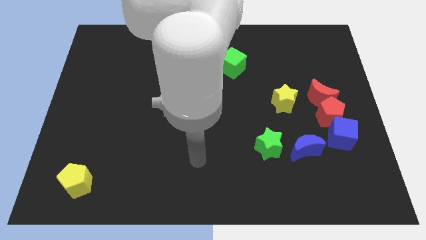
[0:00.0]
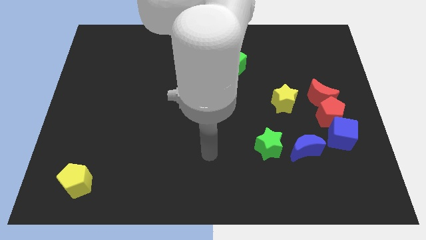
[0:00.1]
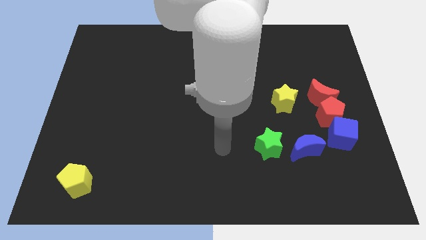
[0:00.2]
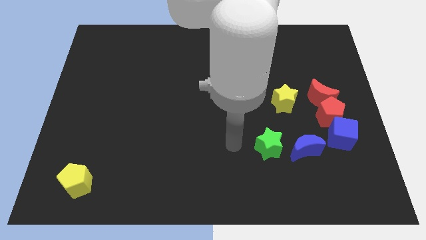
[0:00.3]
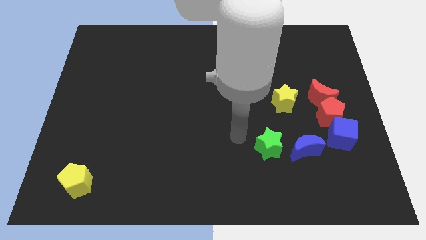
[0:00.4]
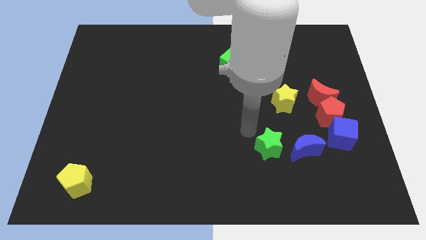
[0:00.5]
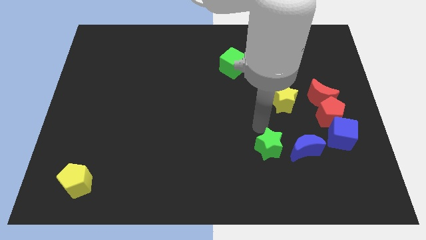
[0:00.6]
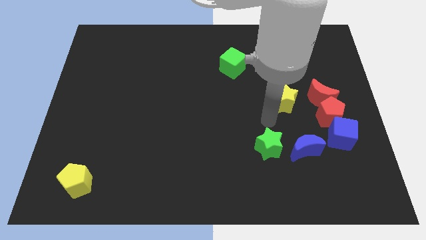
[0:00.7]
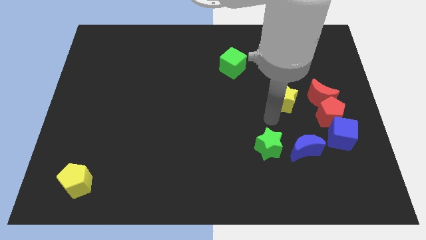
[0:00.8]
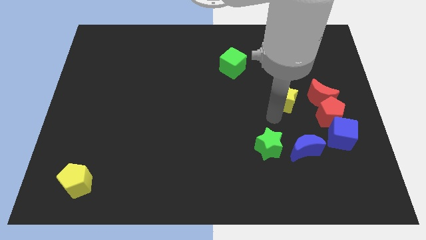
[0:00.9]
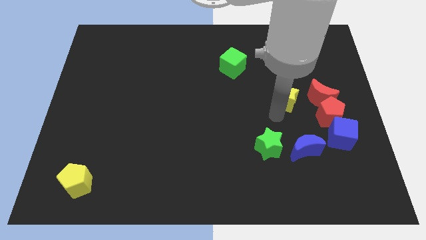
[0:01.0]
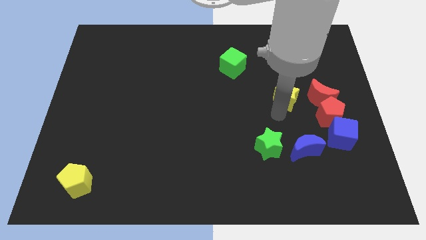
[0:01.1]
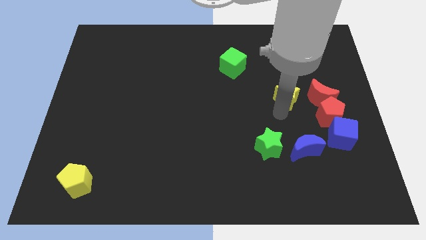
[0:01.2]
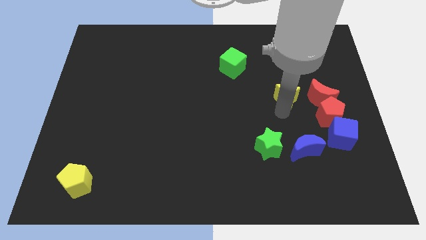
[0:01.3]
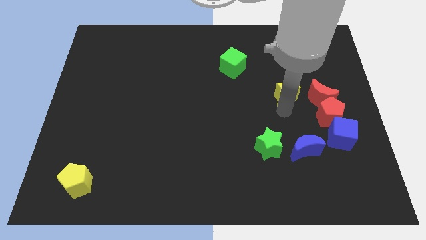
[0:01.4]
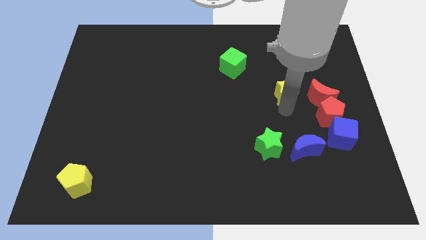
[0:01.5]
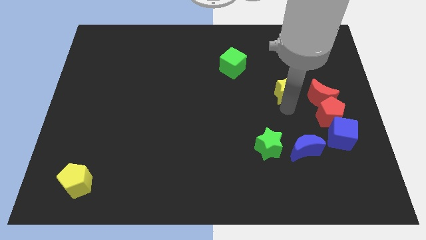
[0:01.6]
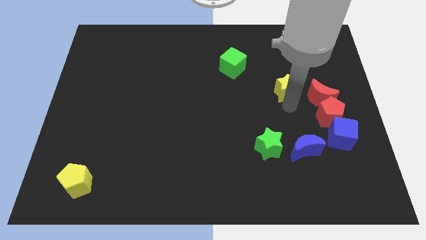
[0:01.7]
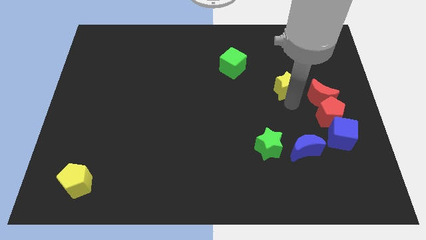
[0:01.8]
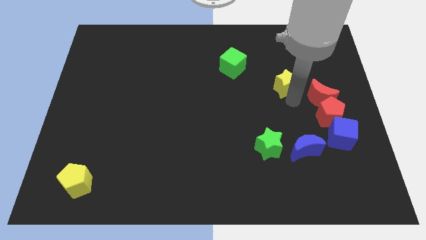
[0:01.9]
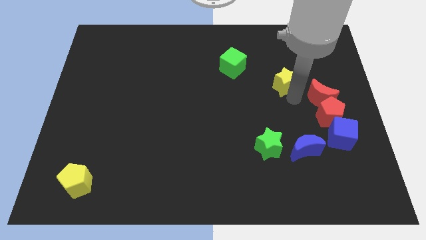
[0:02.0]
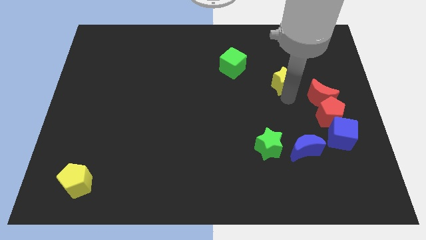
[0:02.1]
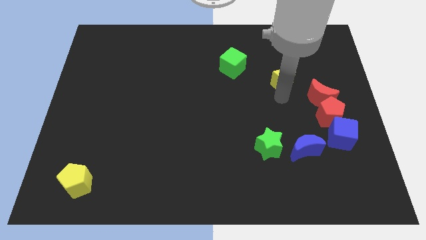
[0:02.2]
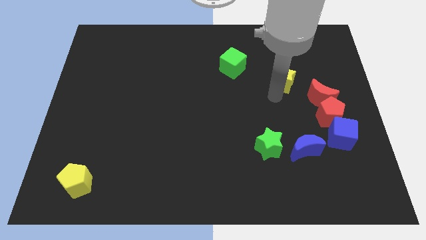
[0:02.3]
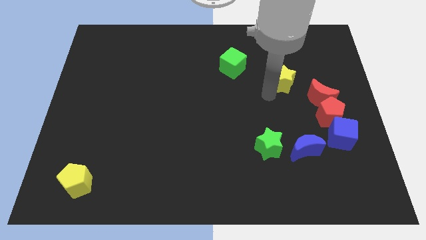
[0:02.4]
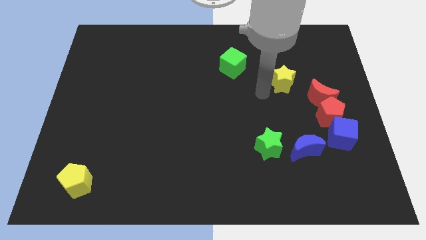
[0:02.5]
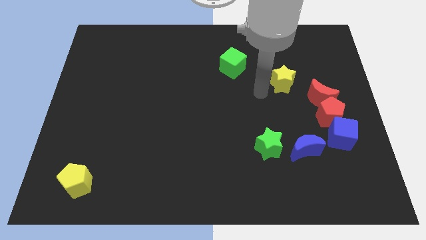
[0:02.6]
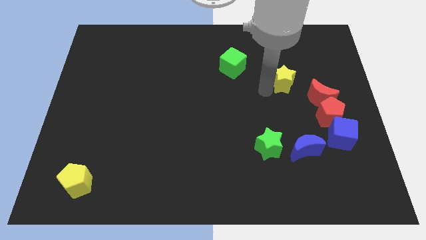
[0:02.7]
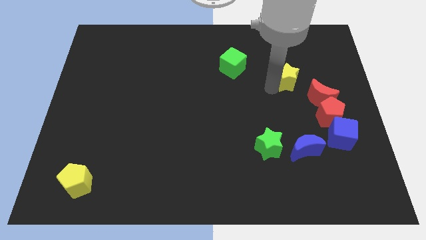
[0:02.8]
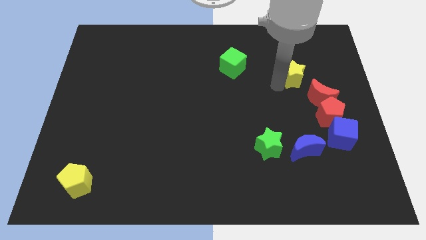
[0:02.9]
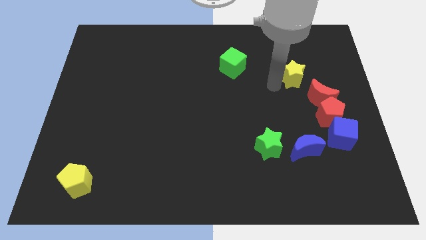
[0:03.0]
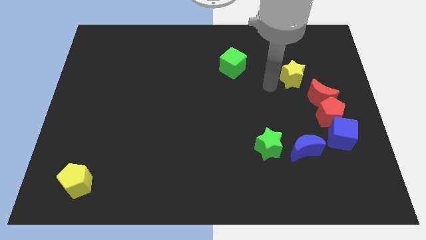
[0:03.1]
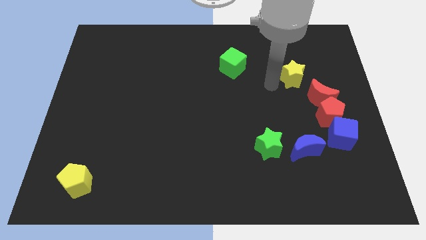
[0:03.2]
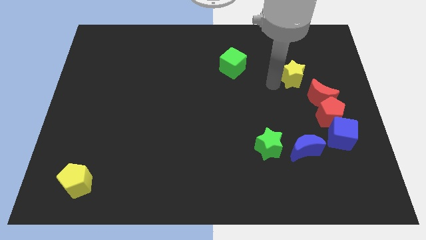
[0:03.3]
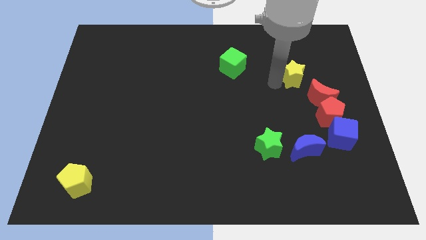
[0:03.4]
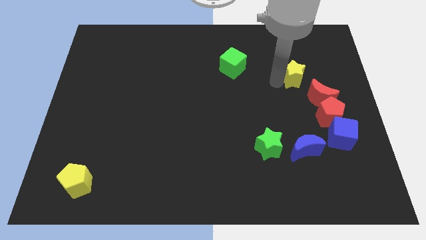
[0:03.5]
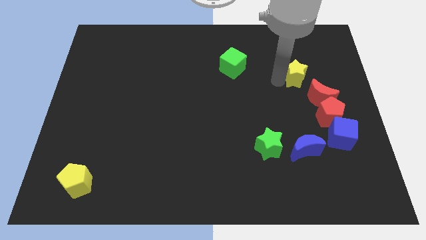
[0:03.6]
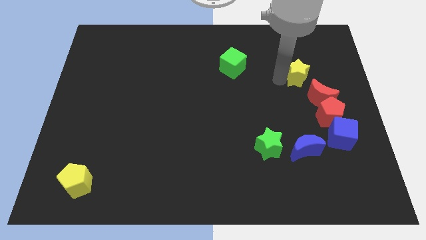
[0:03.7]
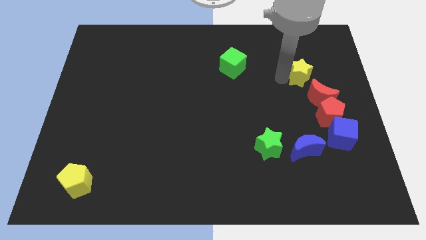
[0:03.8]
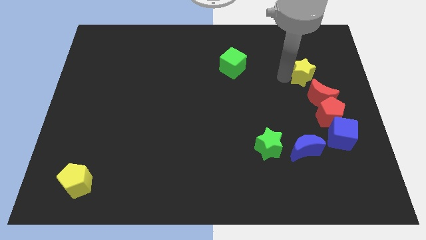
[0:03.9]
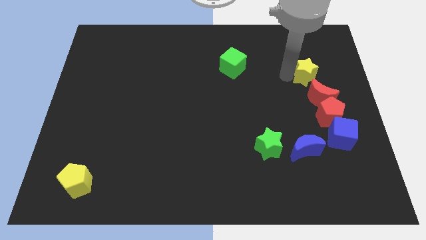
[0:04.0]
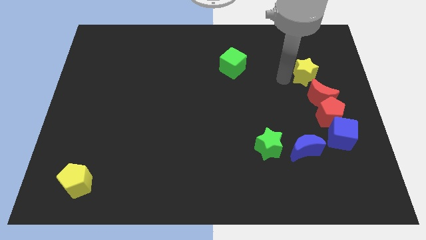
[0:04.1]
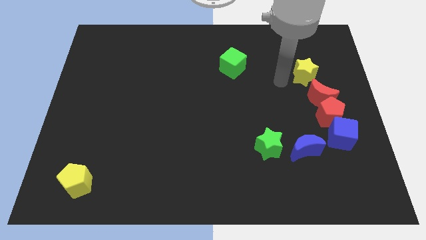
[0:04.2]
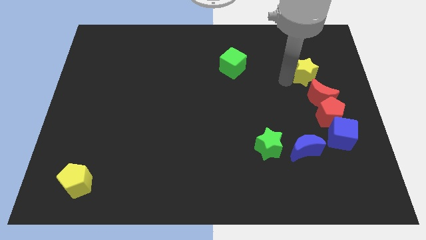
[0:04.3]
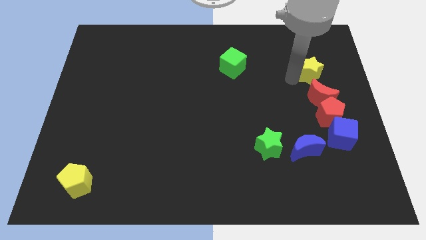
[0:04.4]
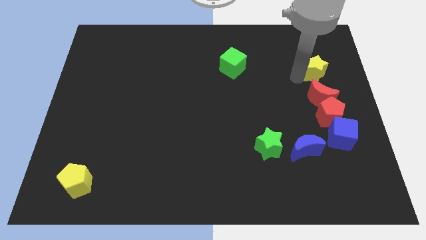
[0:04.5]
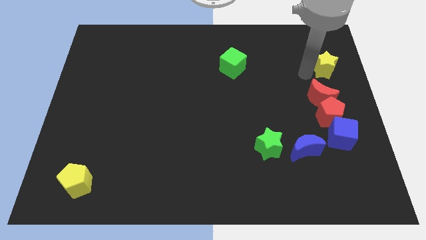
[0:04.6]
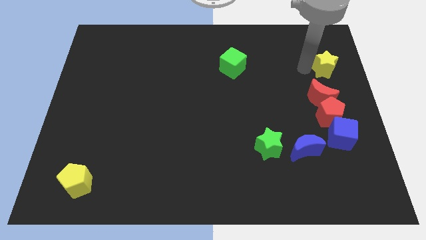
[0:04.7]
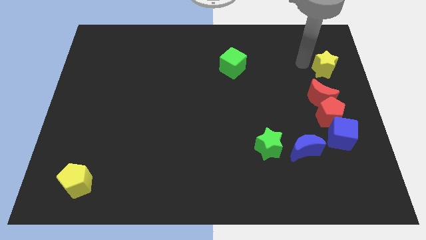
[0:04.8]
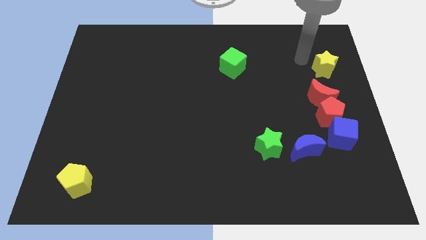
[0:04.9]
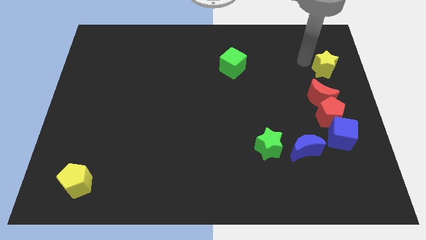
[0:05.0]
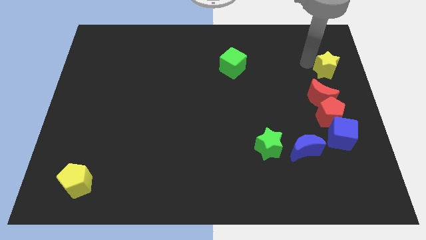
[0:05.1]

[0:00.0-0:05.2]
move the yellow star to the right side of the board

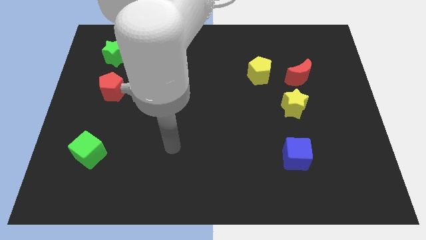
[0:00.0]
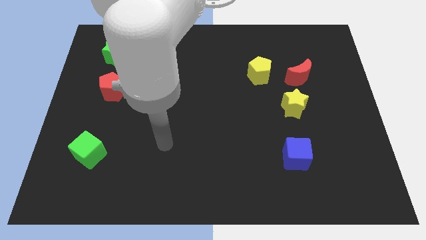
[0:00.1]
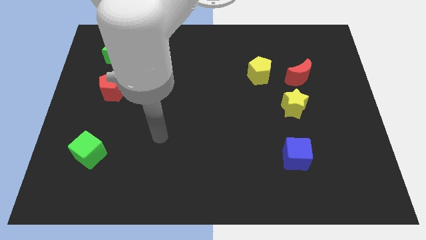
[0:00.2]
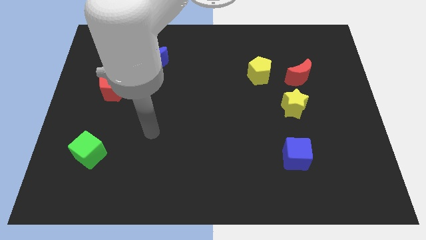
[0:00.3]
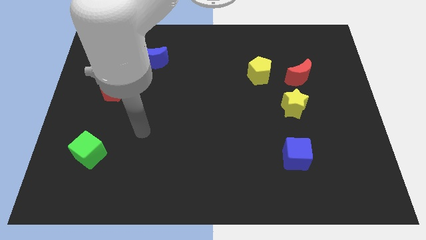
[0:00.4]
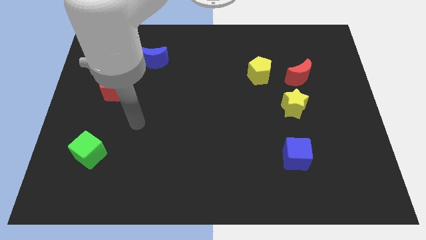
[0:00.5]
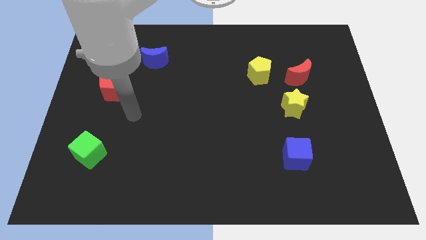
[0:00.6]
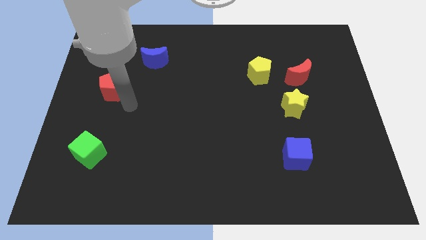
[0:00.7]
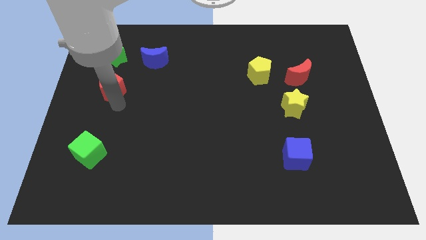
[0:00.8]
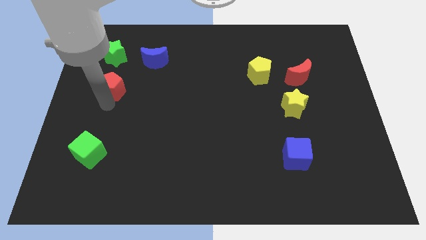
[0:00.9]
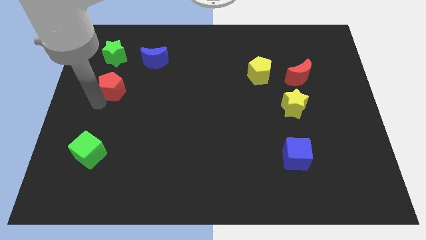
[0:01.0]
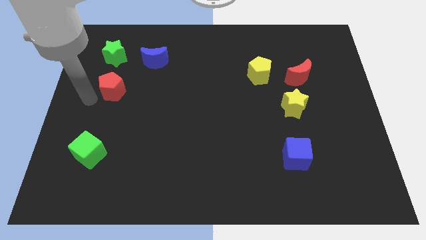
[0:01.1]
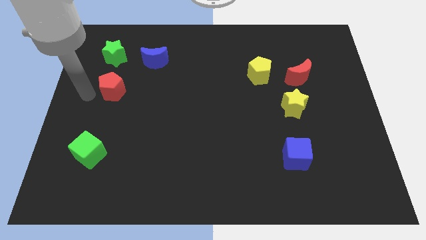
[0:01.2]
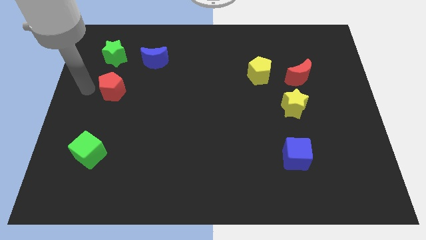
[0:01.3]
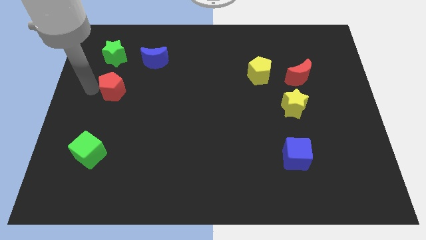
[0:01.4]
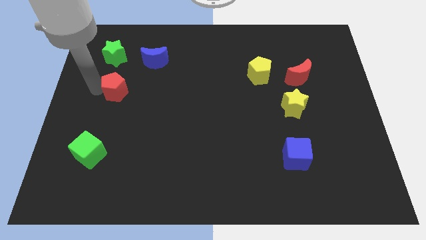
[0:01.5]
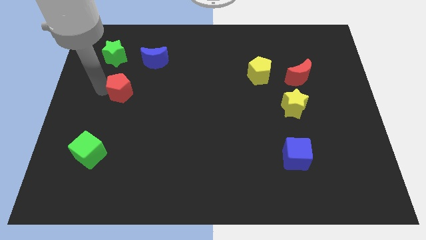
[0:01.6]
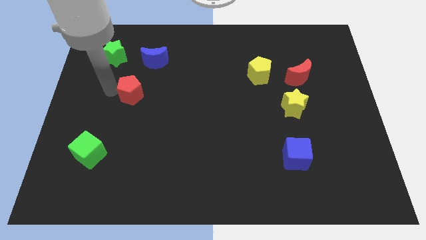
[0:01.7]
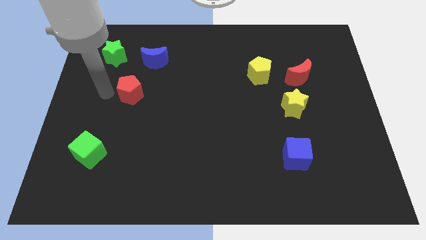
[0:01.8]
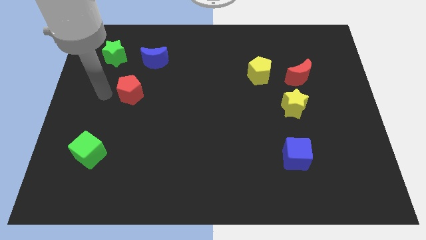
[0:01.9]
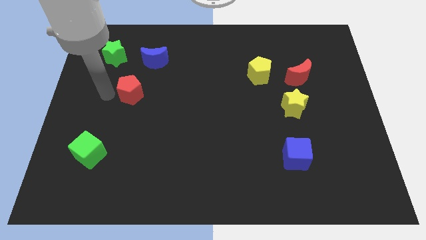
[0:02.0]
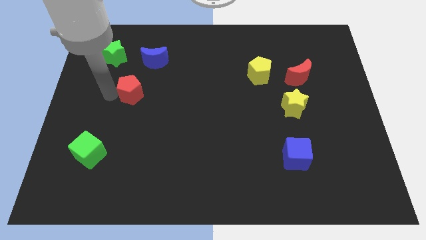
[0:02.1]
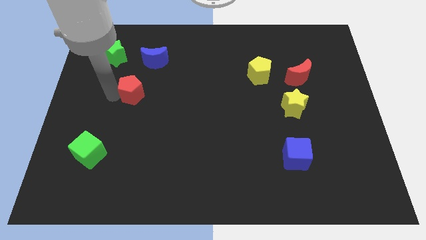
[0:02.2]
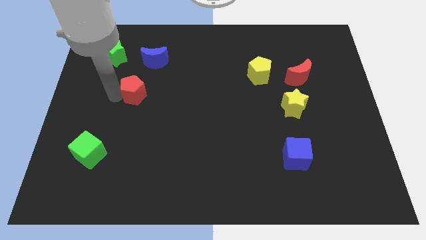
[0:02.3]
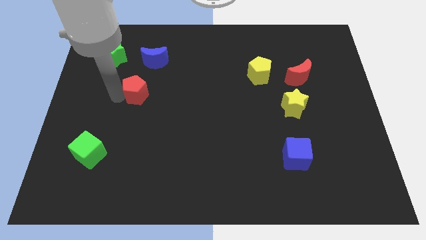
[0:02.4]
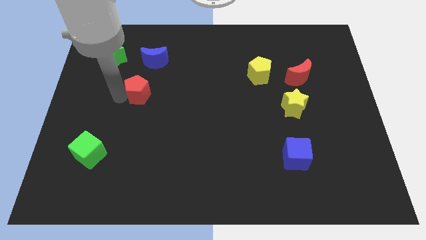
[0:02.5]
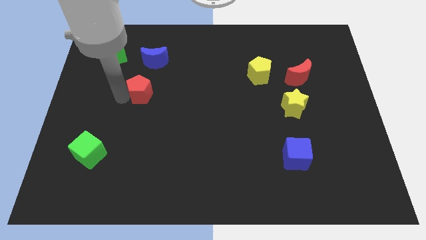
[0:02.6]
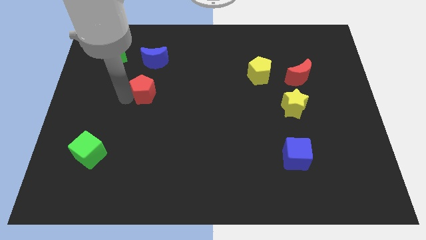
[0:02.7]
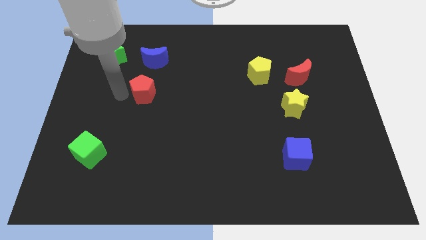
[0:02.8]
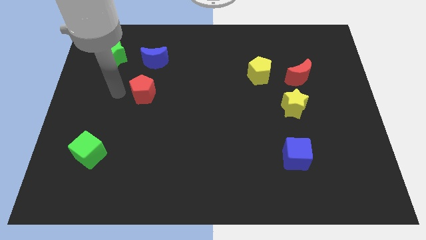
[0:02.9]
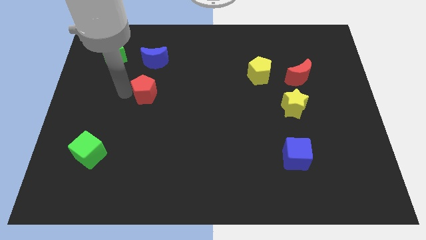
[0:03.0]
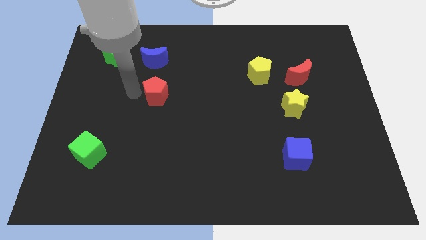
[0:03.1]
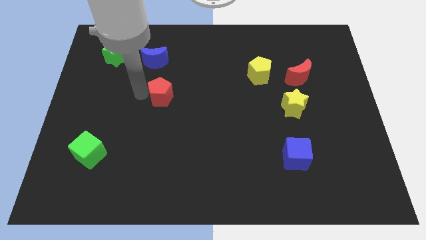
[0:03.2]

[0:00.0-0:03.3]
slide the red pentagon to the middle of the board
